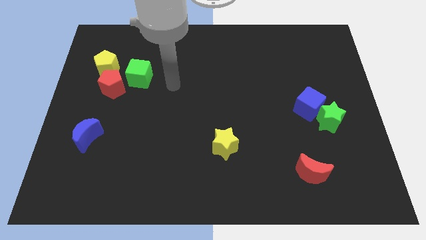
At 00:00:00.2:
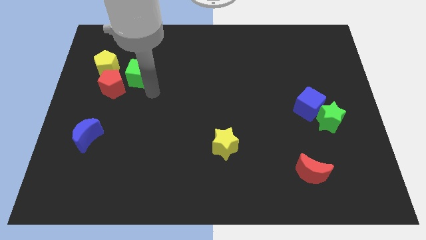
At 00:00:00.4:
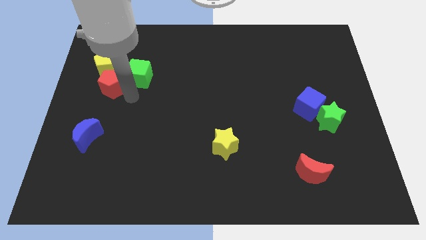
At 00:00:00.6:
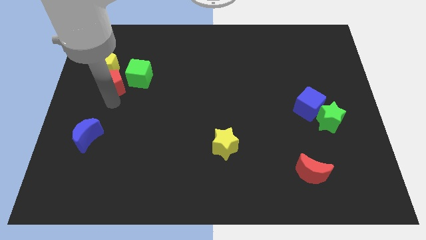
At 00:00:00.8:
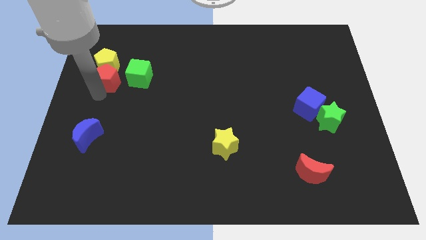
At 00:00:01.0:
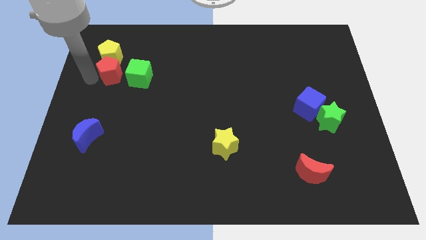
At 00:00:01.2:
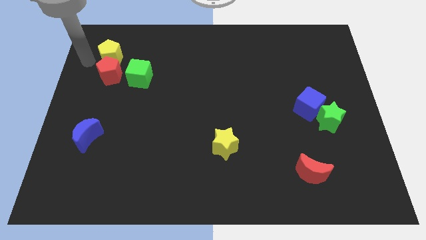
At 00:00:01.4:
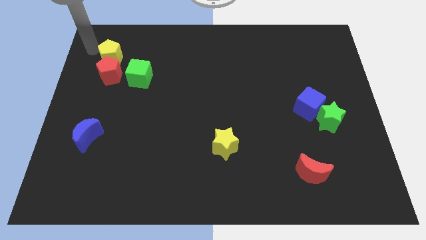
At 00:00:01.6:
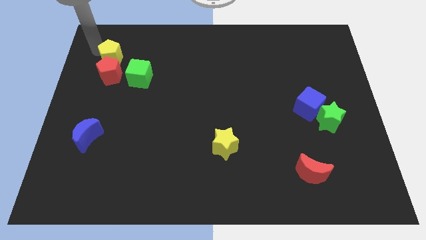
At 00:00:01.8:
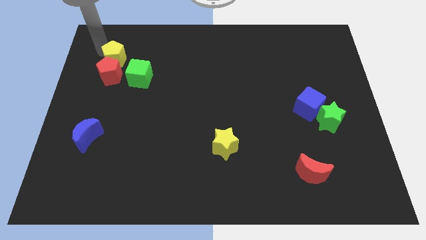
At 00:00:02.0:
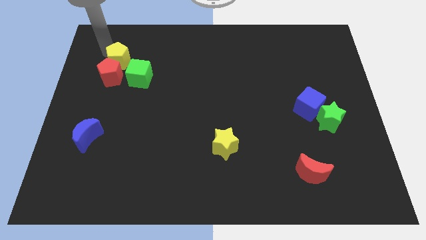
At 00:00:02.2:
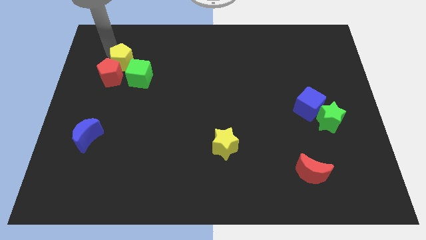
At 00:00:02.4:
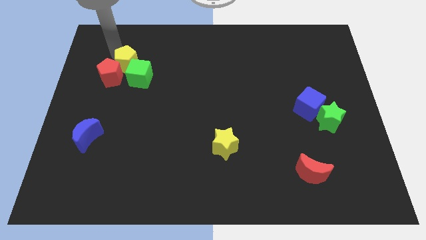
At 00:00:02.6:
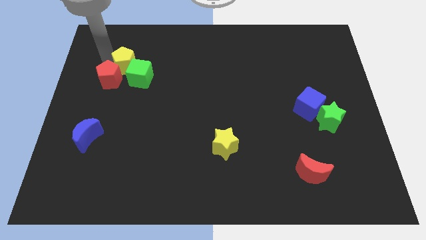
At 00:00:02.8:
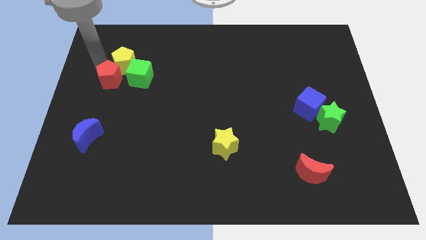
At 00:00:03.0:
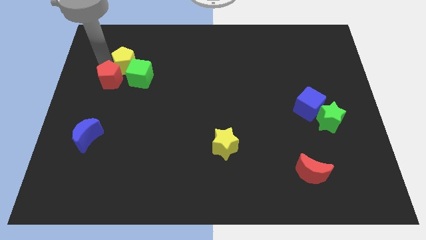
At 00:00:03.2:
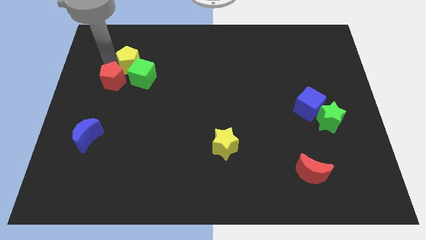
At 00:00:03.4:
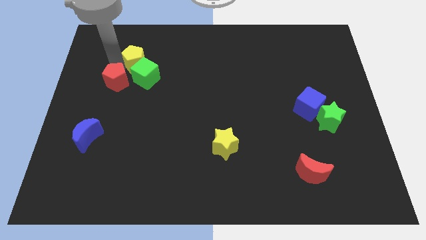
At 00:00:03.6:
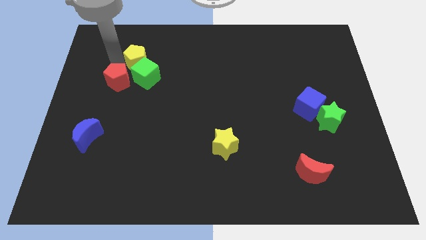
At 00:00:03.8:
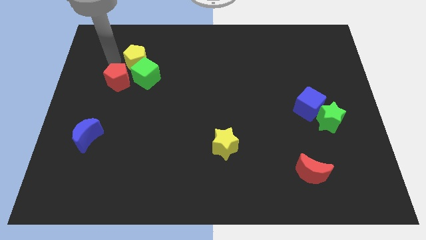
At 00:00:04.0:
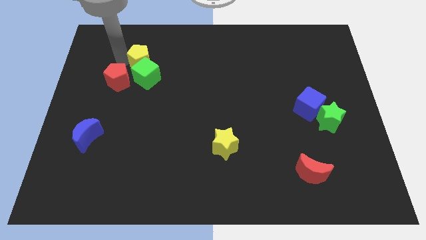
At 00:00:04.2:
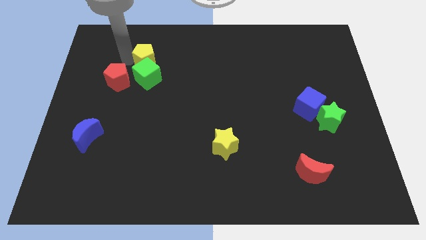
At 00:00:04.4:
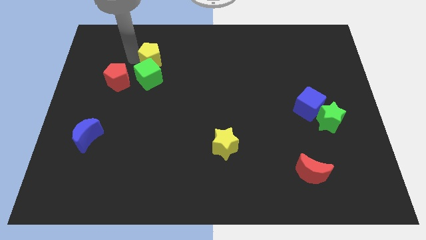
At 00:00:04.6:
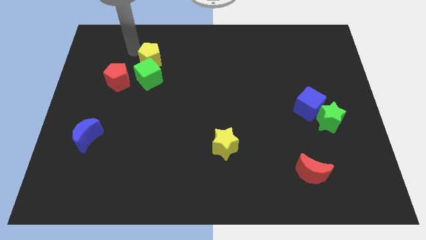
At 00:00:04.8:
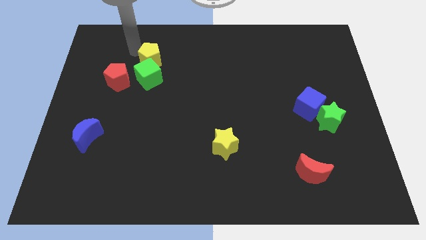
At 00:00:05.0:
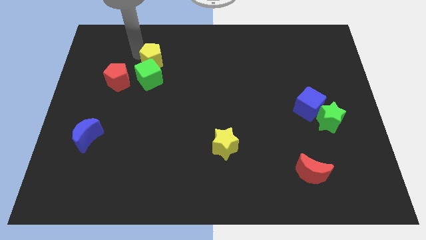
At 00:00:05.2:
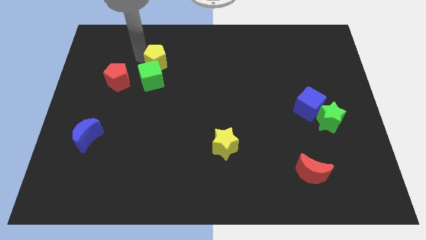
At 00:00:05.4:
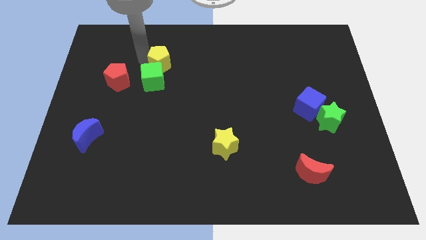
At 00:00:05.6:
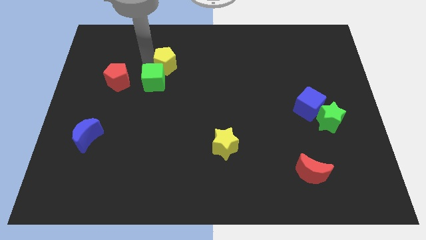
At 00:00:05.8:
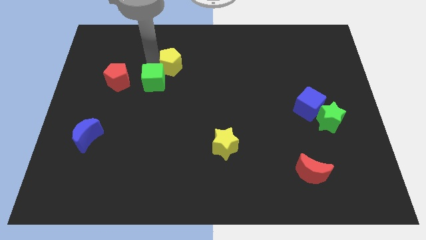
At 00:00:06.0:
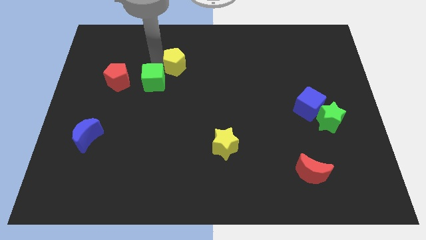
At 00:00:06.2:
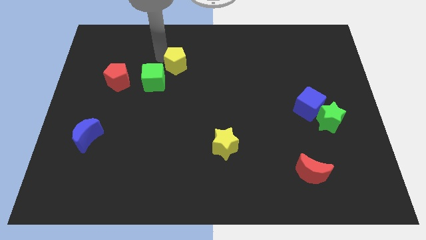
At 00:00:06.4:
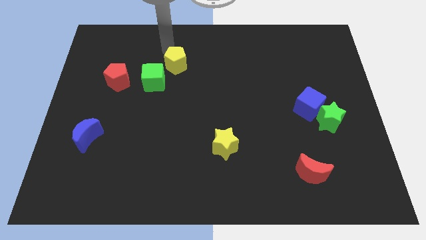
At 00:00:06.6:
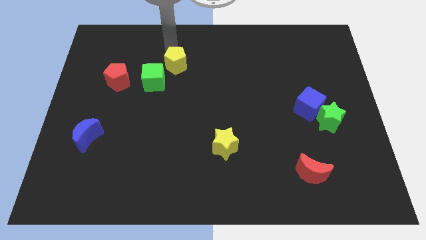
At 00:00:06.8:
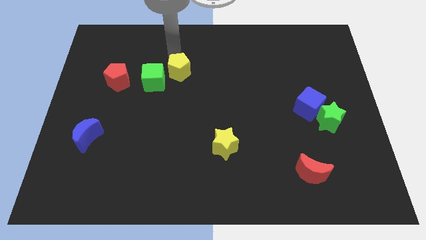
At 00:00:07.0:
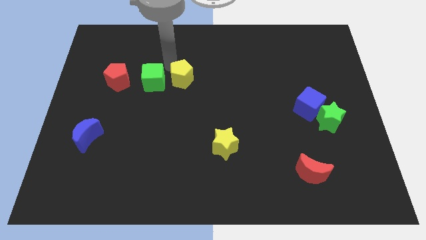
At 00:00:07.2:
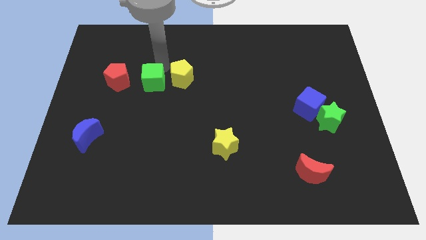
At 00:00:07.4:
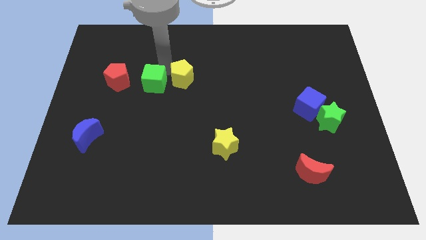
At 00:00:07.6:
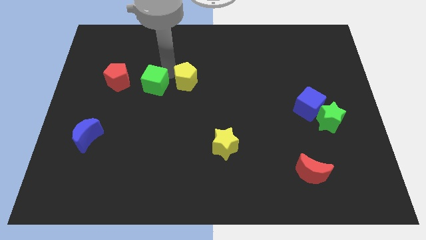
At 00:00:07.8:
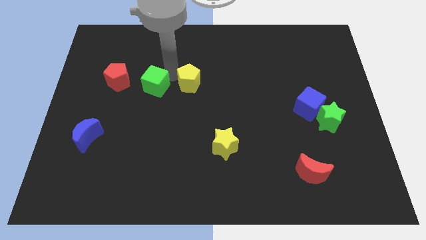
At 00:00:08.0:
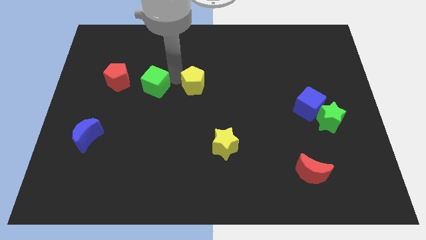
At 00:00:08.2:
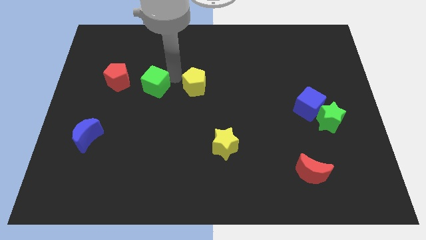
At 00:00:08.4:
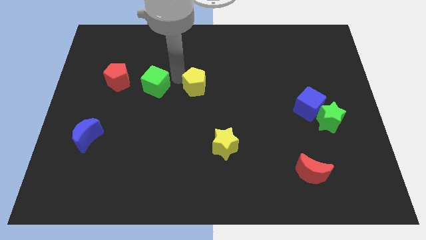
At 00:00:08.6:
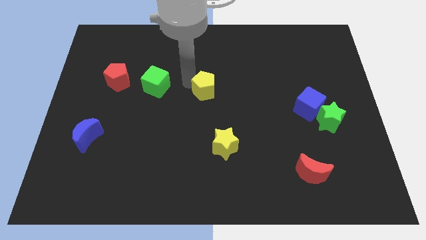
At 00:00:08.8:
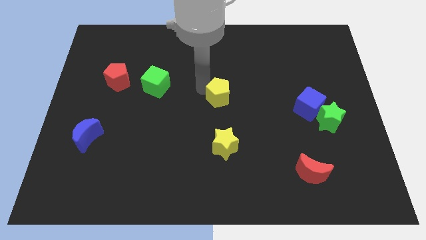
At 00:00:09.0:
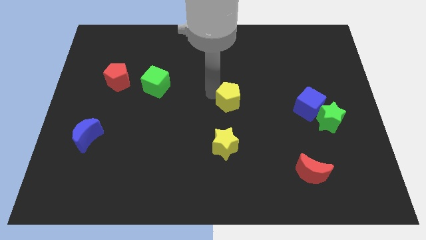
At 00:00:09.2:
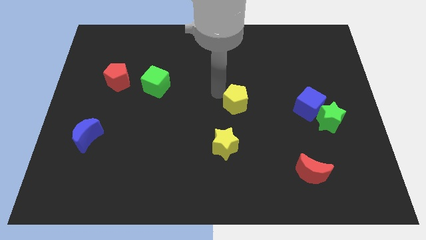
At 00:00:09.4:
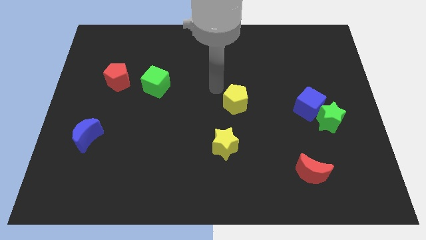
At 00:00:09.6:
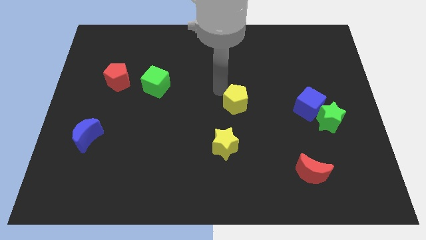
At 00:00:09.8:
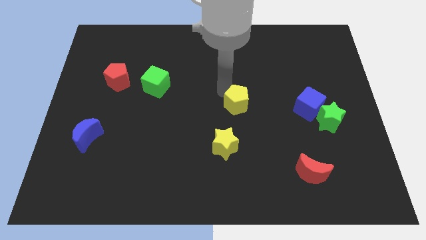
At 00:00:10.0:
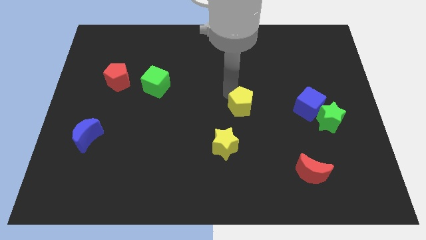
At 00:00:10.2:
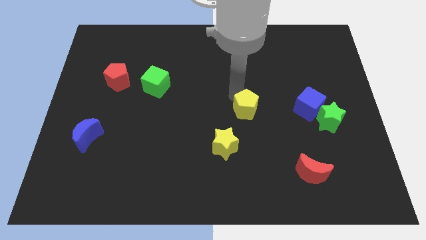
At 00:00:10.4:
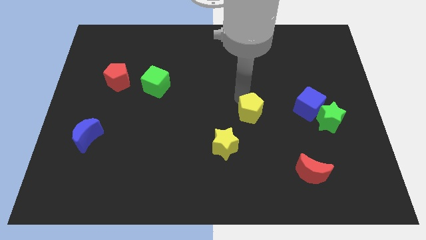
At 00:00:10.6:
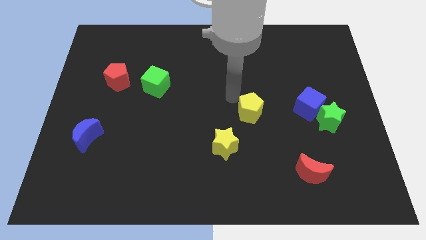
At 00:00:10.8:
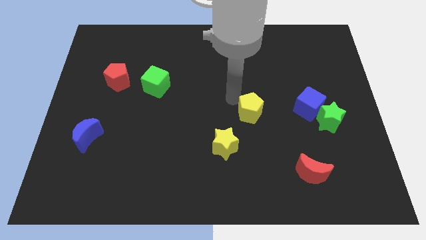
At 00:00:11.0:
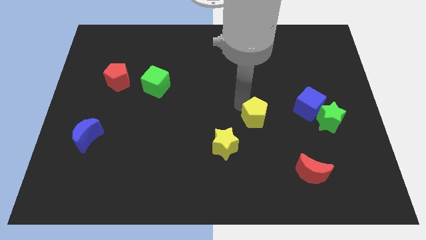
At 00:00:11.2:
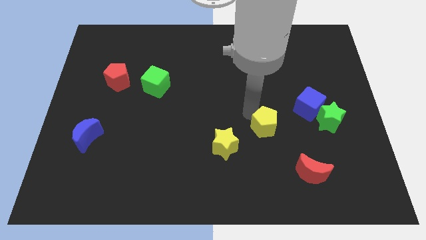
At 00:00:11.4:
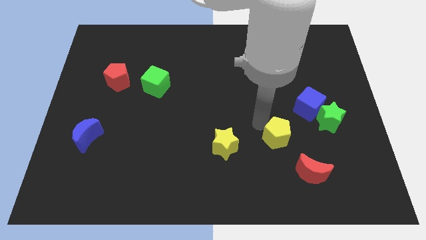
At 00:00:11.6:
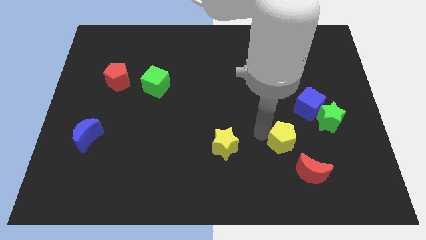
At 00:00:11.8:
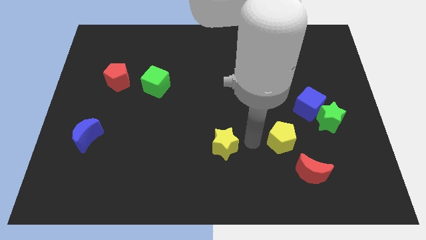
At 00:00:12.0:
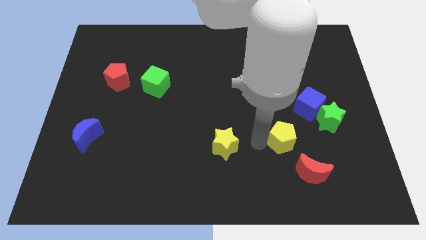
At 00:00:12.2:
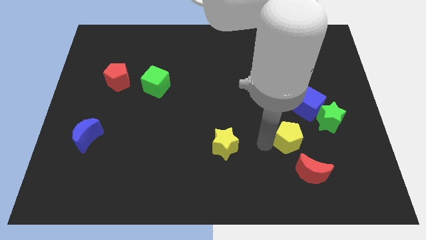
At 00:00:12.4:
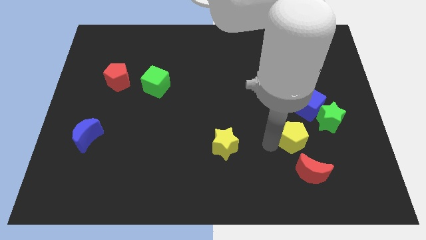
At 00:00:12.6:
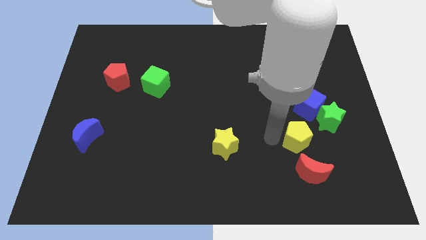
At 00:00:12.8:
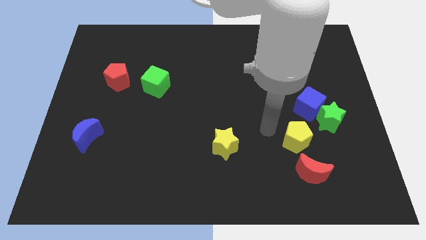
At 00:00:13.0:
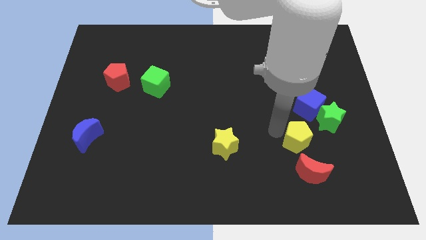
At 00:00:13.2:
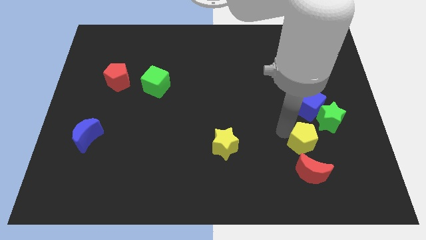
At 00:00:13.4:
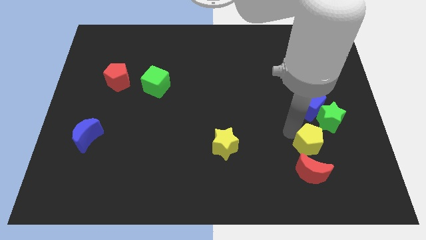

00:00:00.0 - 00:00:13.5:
put the yellow pentagon diagonally up and to the right of the red moon

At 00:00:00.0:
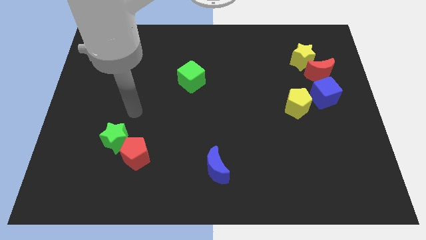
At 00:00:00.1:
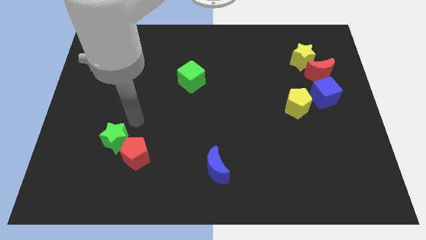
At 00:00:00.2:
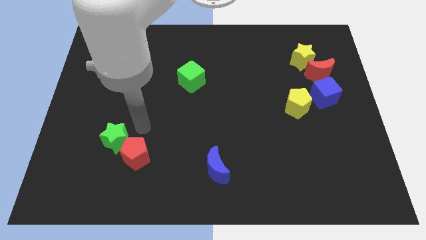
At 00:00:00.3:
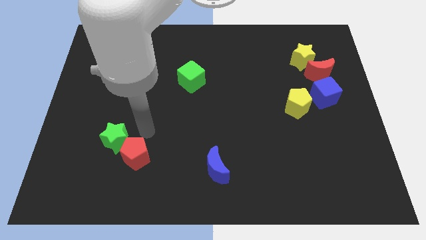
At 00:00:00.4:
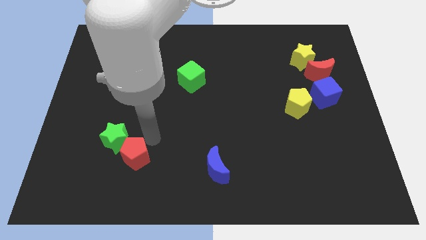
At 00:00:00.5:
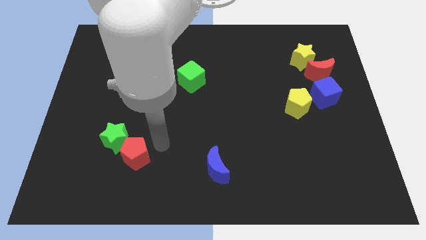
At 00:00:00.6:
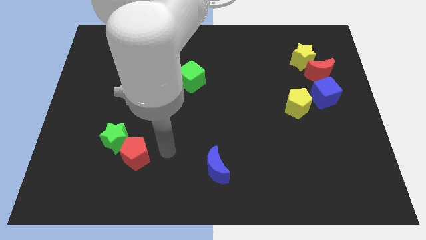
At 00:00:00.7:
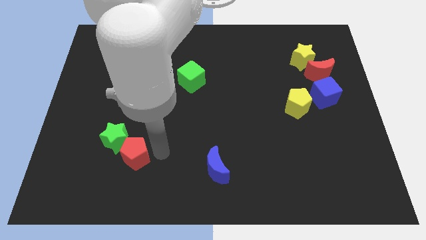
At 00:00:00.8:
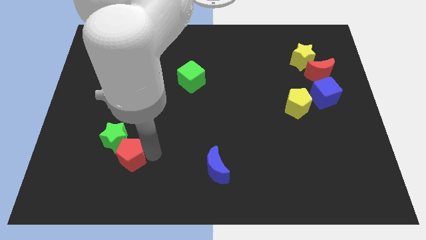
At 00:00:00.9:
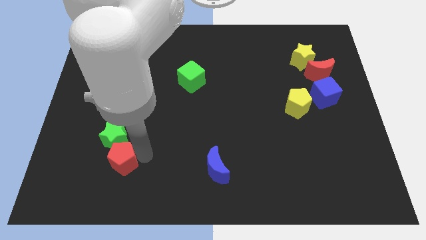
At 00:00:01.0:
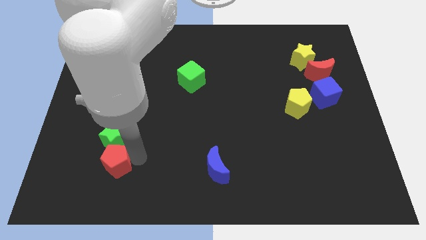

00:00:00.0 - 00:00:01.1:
move the red pentagon diagonally down and to the left of the green star
